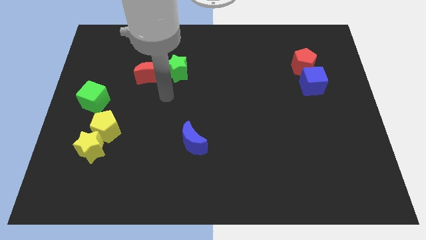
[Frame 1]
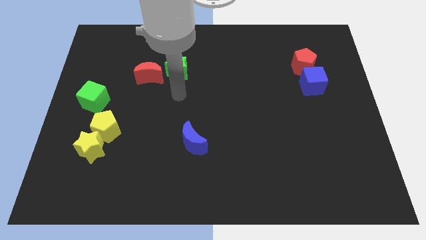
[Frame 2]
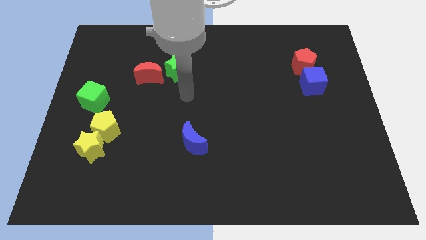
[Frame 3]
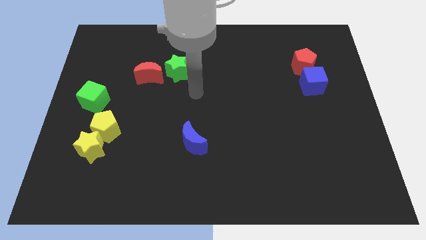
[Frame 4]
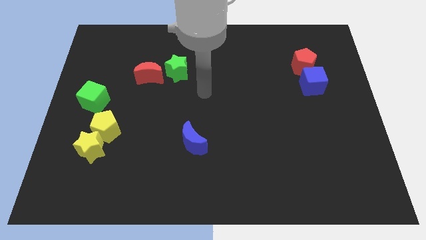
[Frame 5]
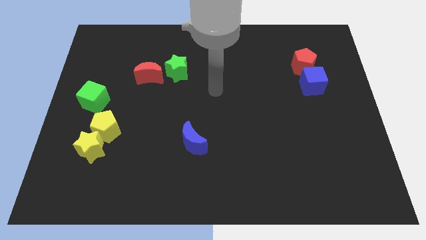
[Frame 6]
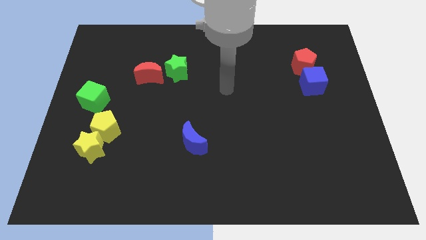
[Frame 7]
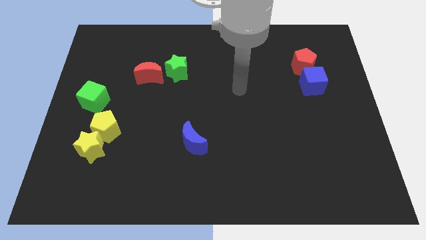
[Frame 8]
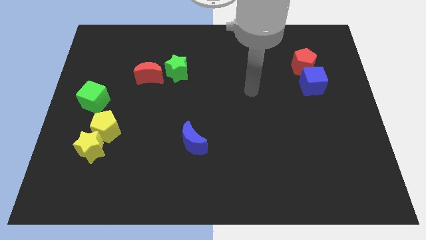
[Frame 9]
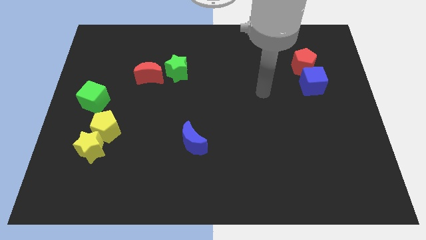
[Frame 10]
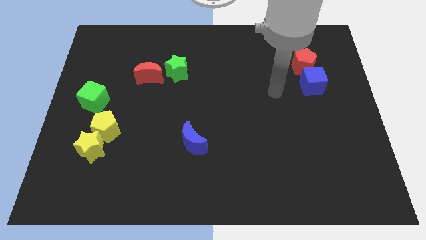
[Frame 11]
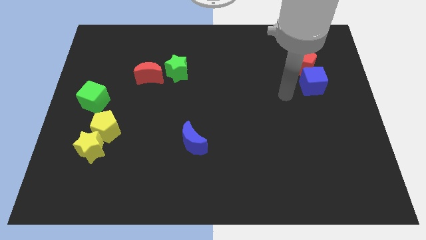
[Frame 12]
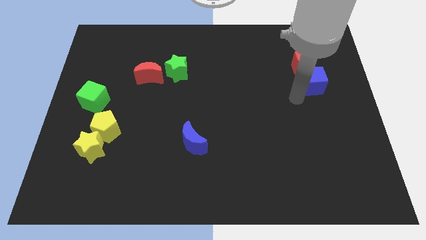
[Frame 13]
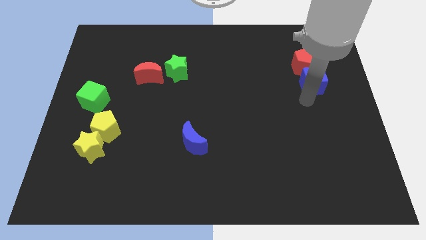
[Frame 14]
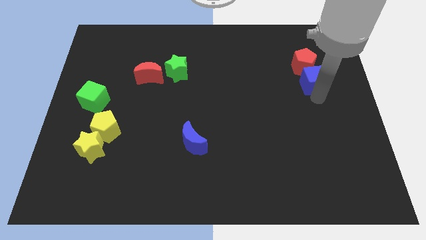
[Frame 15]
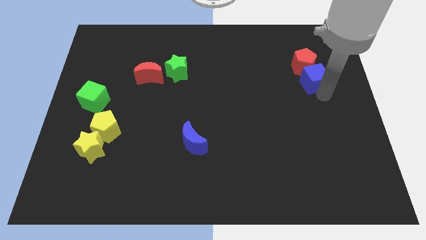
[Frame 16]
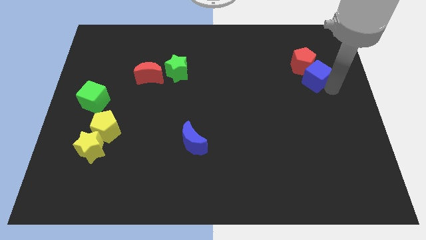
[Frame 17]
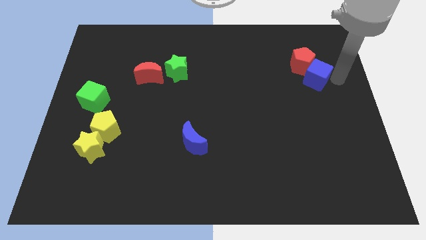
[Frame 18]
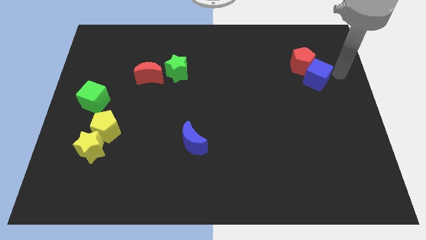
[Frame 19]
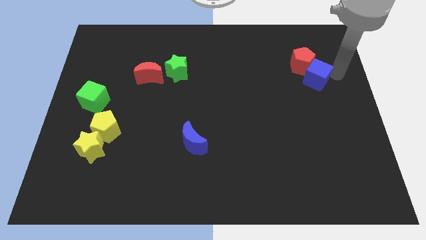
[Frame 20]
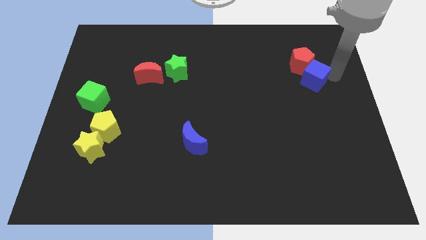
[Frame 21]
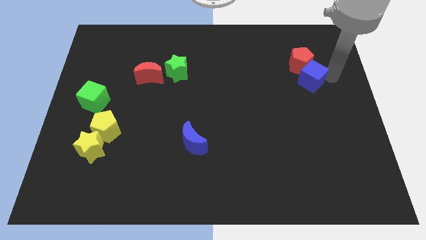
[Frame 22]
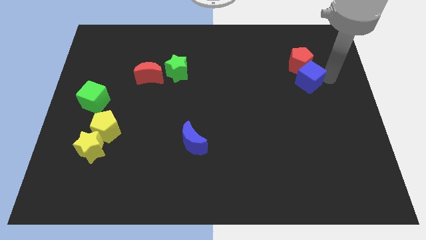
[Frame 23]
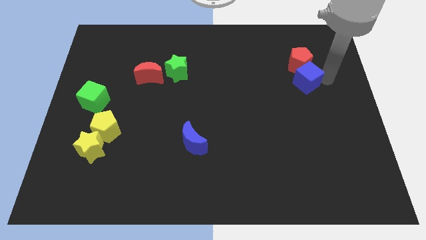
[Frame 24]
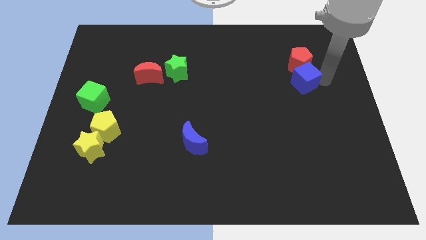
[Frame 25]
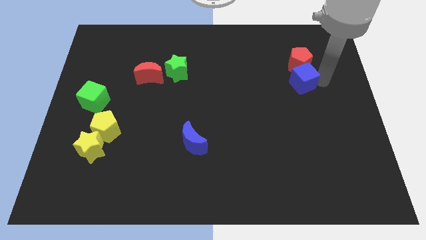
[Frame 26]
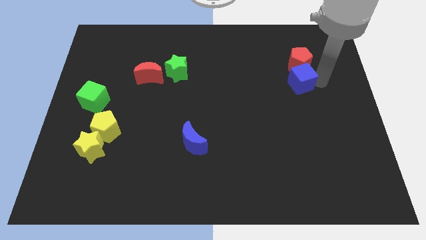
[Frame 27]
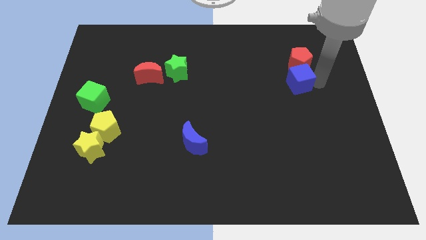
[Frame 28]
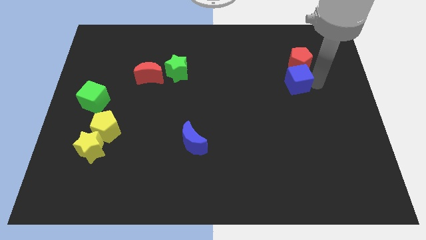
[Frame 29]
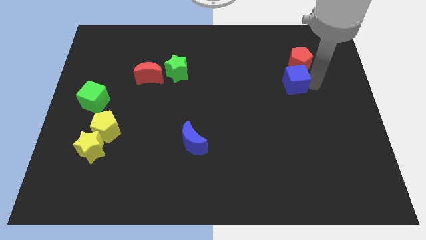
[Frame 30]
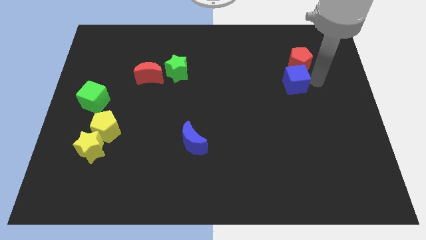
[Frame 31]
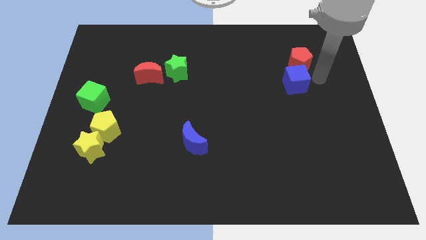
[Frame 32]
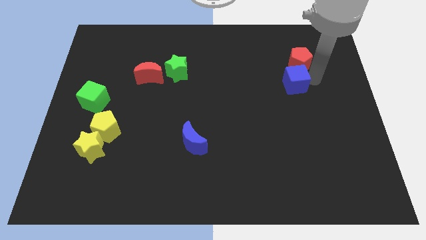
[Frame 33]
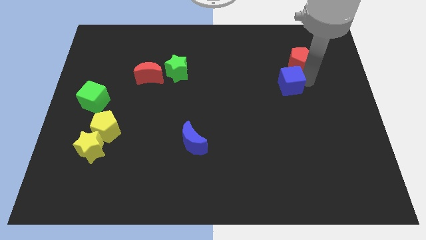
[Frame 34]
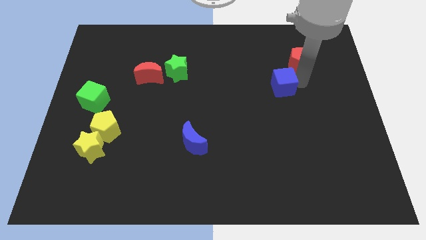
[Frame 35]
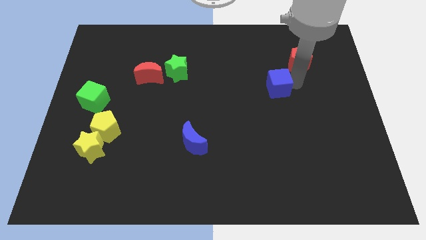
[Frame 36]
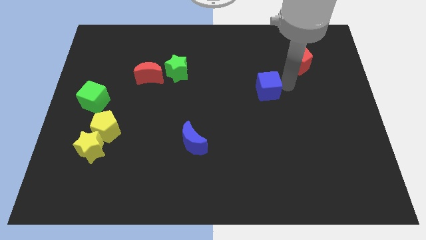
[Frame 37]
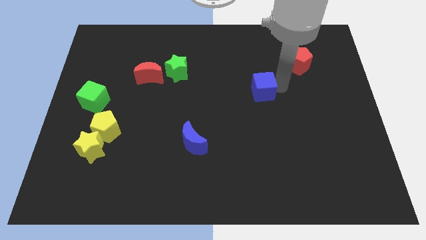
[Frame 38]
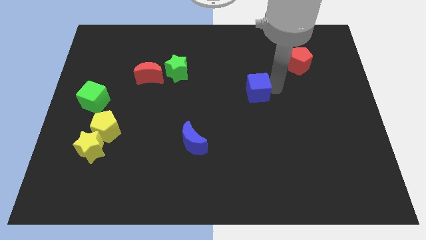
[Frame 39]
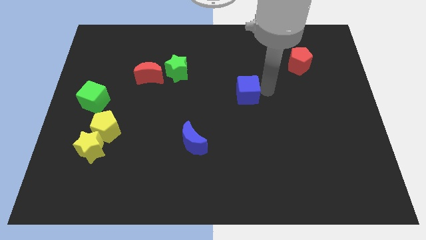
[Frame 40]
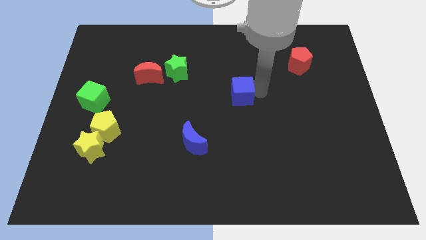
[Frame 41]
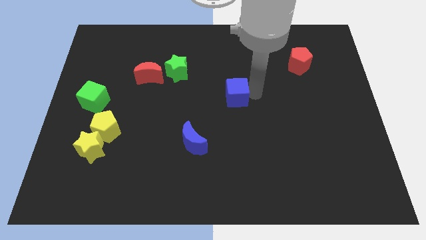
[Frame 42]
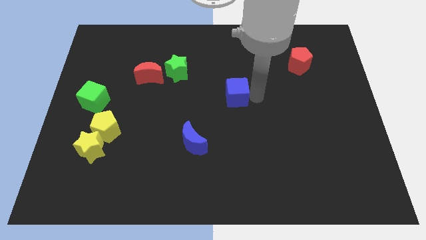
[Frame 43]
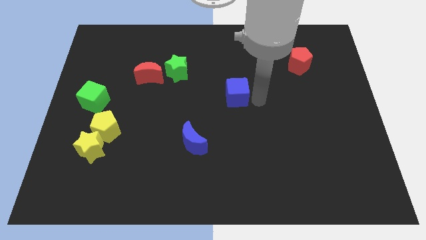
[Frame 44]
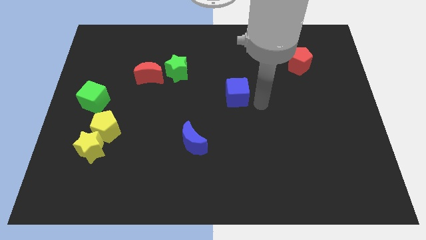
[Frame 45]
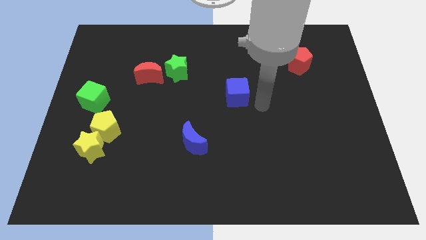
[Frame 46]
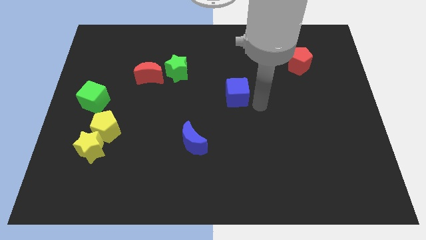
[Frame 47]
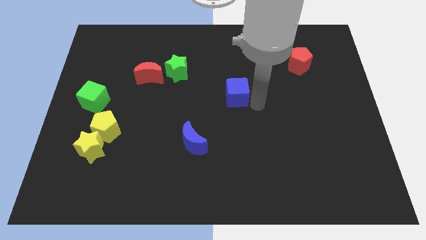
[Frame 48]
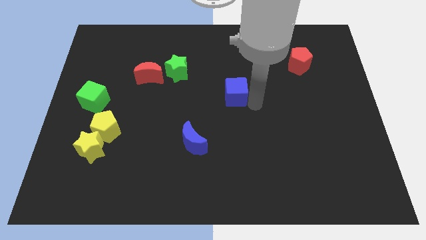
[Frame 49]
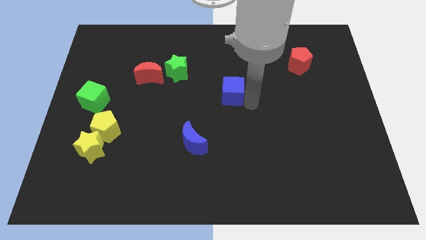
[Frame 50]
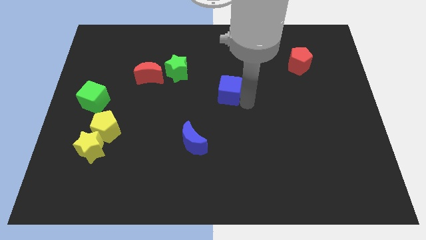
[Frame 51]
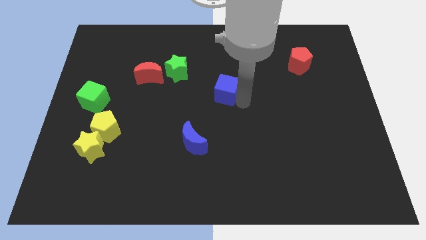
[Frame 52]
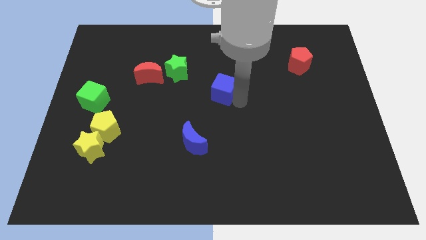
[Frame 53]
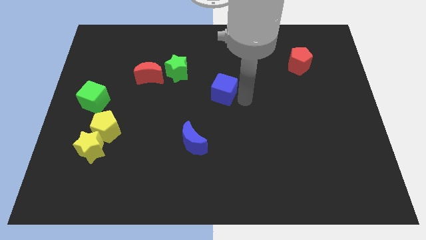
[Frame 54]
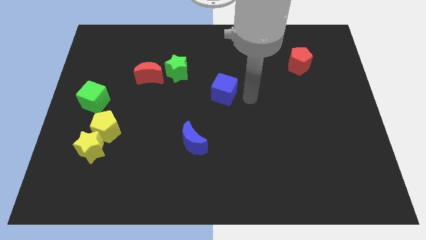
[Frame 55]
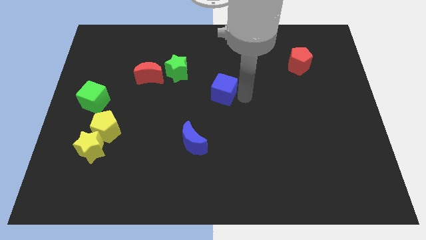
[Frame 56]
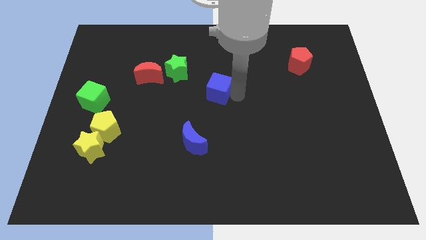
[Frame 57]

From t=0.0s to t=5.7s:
move the blue cube diagonally down and to the right of the green star

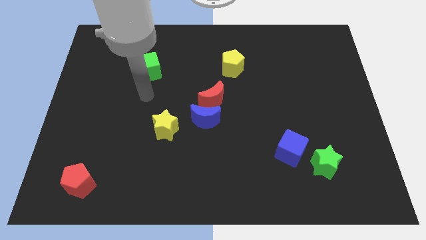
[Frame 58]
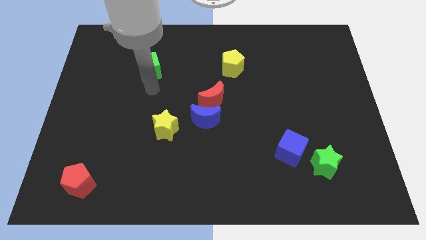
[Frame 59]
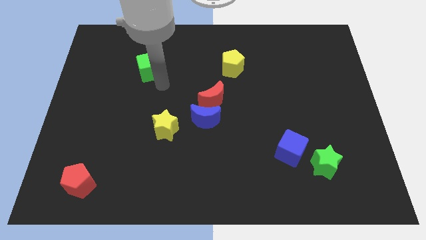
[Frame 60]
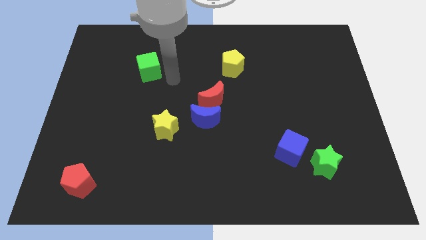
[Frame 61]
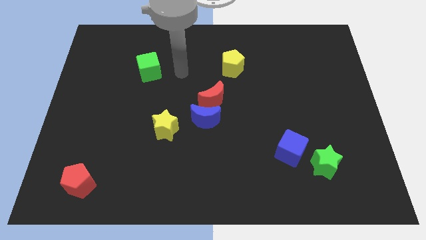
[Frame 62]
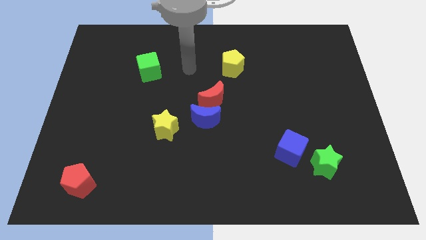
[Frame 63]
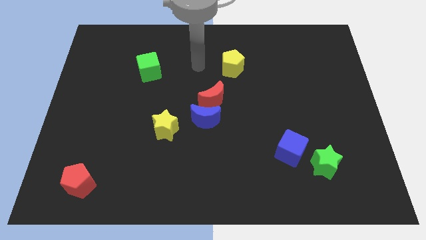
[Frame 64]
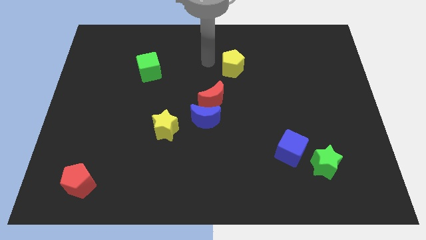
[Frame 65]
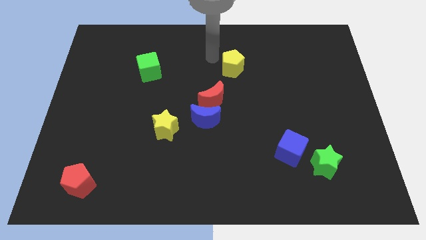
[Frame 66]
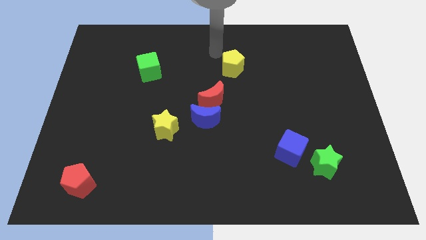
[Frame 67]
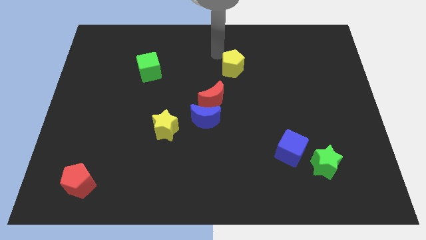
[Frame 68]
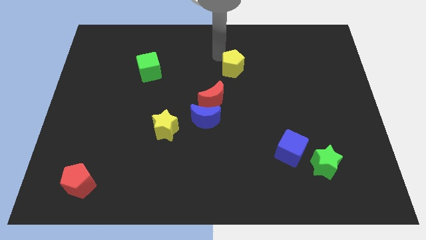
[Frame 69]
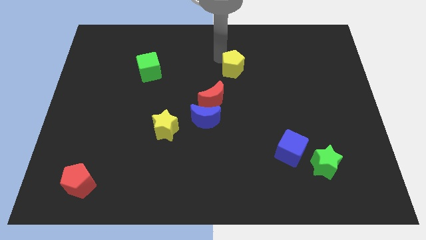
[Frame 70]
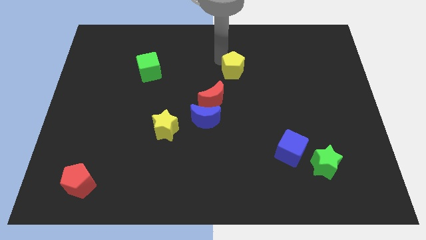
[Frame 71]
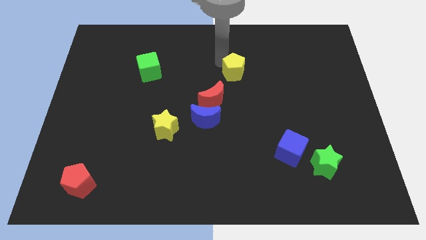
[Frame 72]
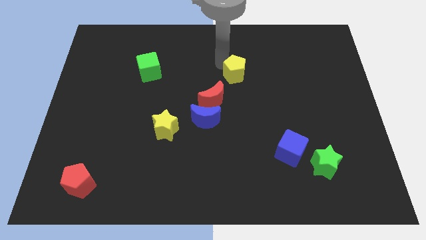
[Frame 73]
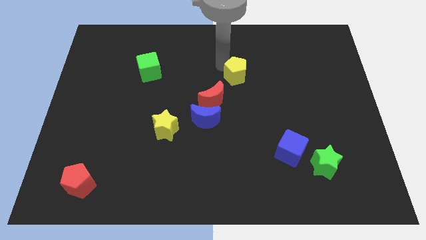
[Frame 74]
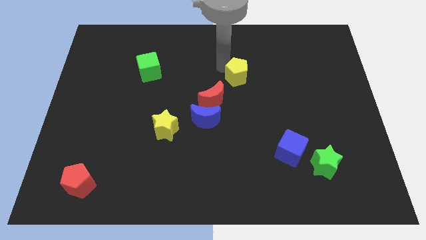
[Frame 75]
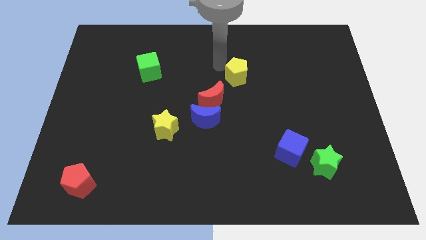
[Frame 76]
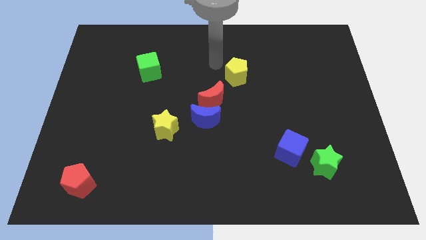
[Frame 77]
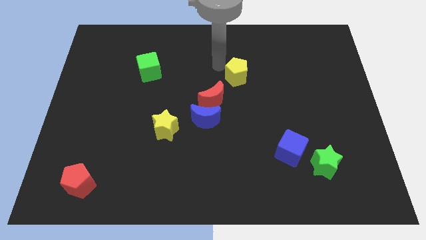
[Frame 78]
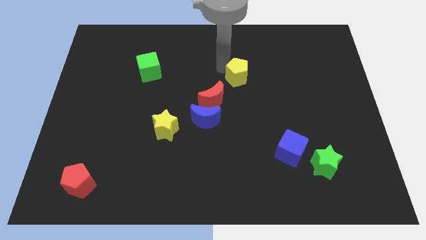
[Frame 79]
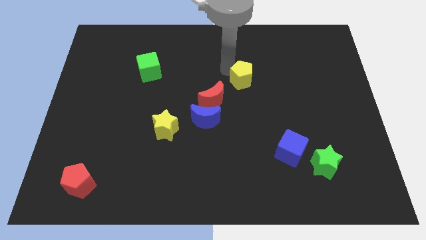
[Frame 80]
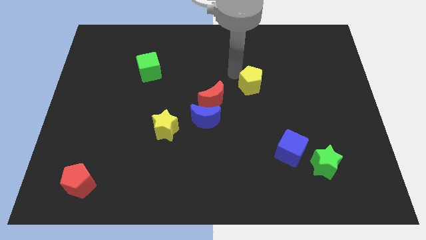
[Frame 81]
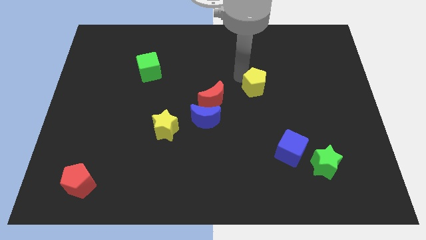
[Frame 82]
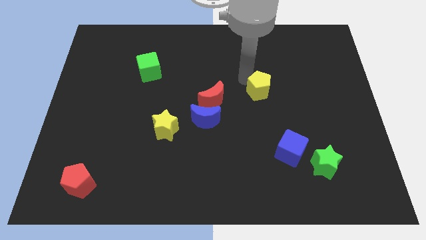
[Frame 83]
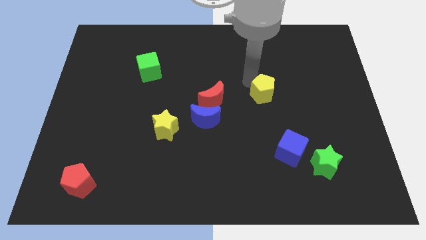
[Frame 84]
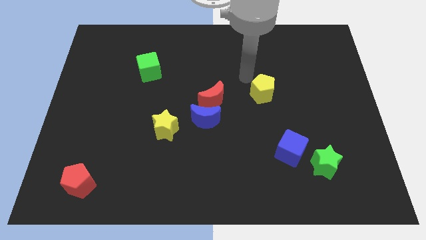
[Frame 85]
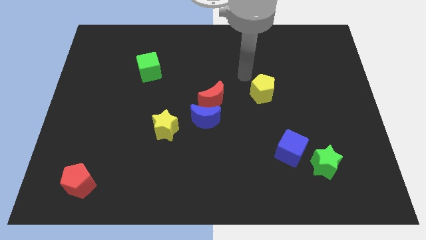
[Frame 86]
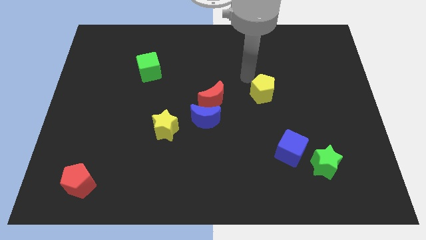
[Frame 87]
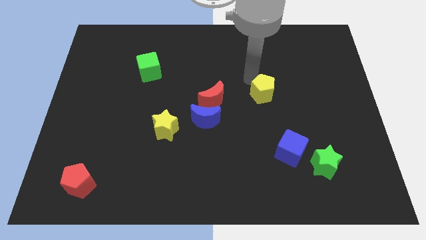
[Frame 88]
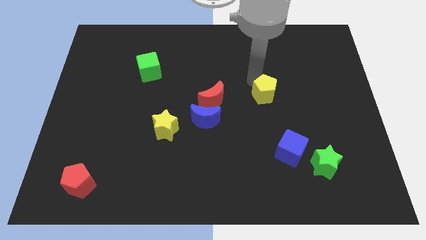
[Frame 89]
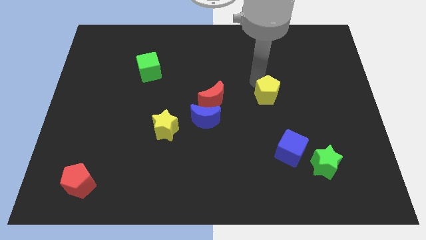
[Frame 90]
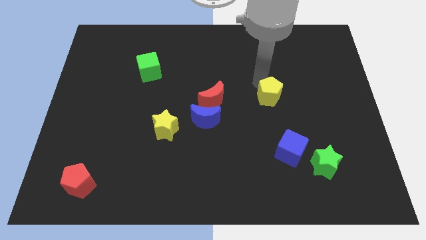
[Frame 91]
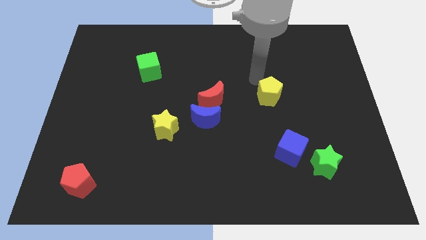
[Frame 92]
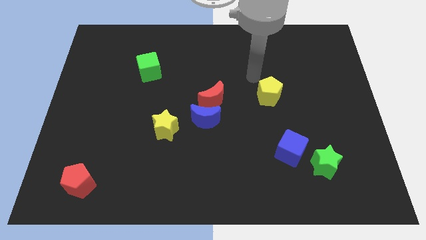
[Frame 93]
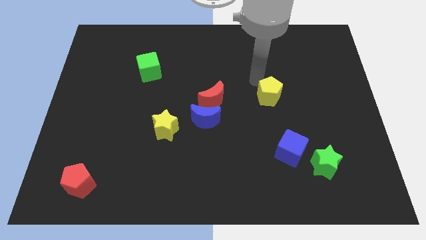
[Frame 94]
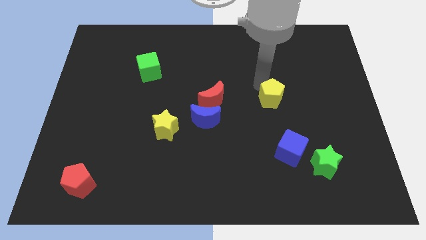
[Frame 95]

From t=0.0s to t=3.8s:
slide the yellow pentagon above the blue cube
